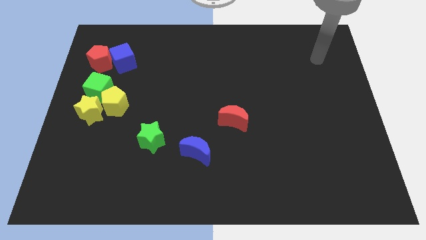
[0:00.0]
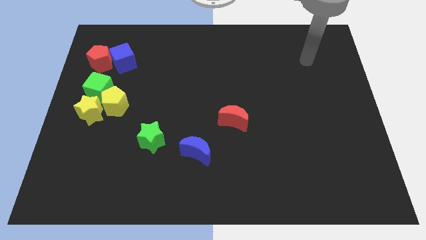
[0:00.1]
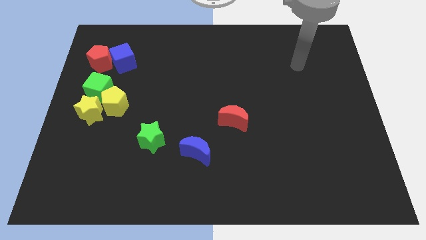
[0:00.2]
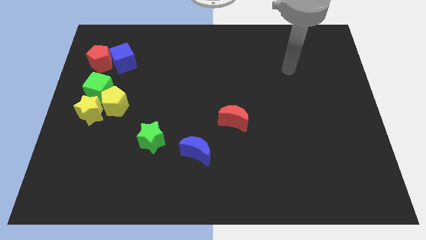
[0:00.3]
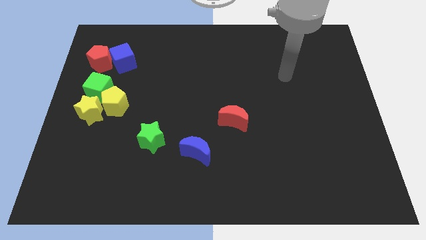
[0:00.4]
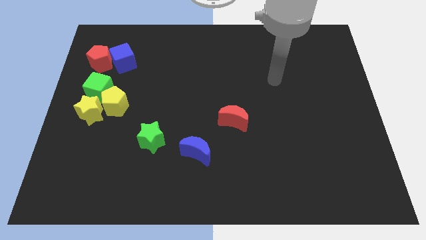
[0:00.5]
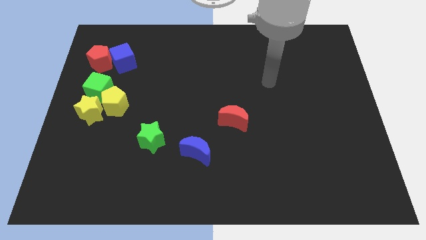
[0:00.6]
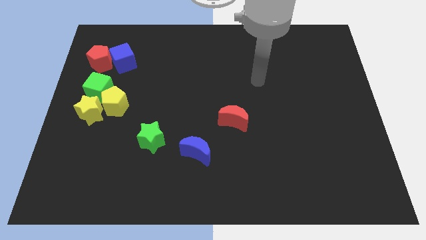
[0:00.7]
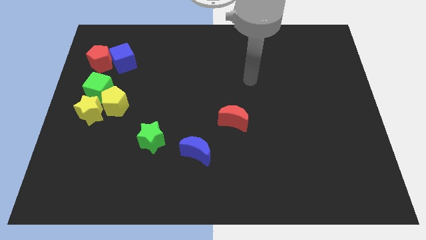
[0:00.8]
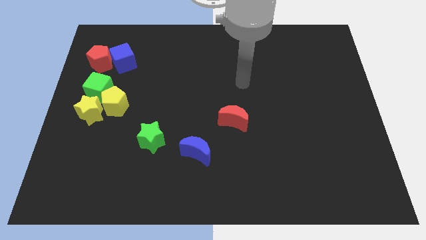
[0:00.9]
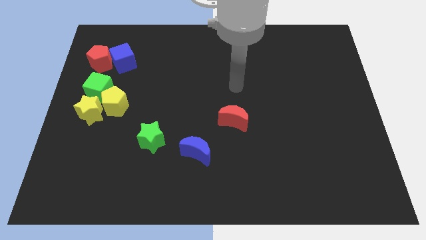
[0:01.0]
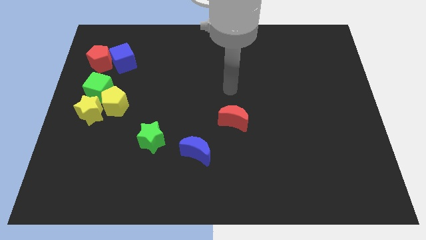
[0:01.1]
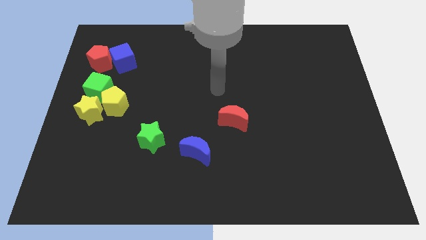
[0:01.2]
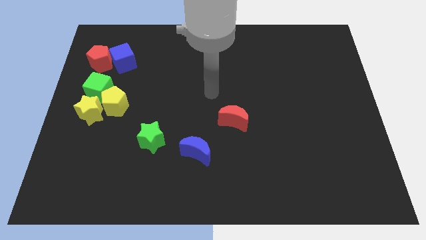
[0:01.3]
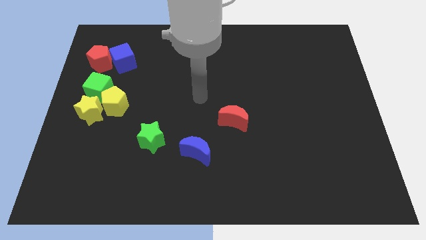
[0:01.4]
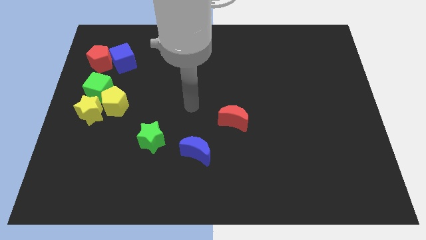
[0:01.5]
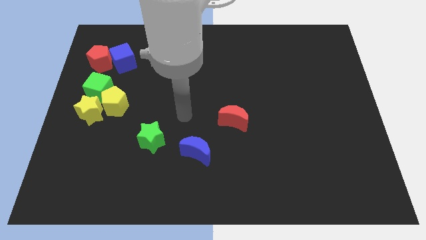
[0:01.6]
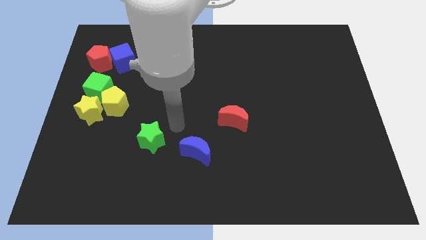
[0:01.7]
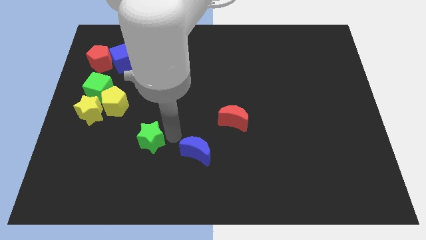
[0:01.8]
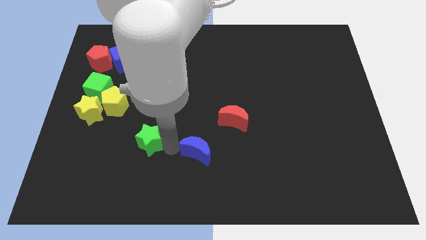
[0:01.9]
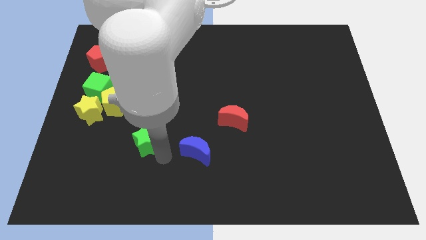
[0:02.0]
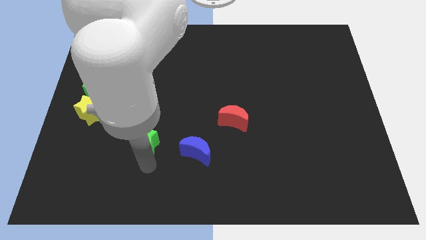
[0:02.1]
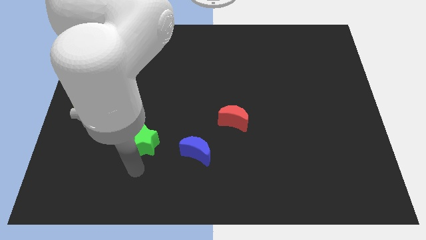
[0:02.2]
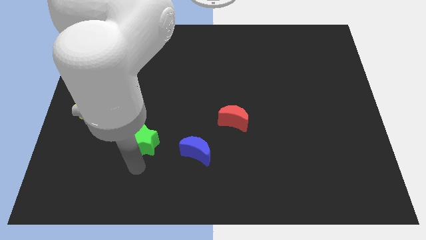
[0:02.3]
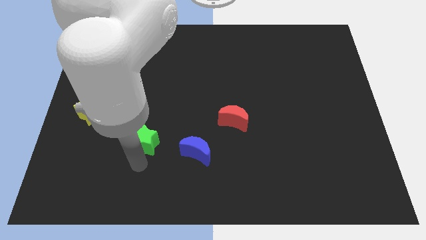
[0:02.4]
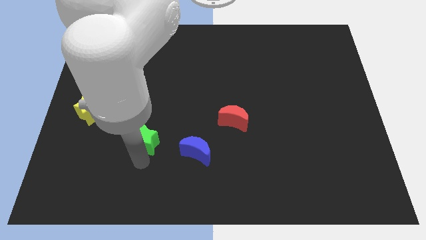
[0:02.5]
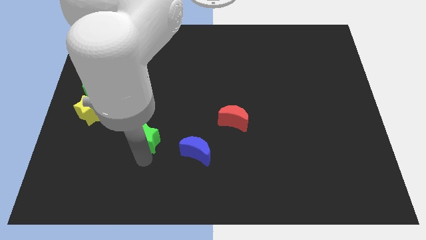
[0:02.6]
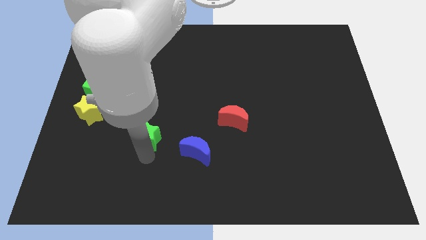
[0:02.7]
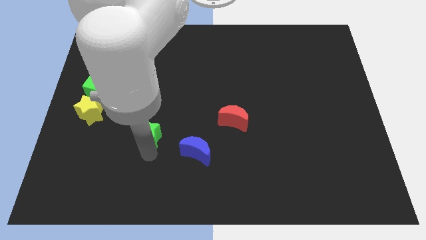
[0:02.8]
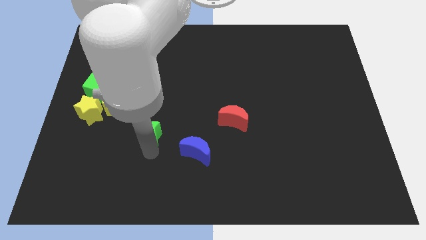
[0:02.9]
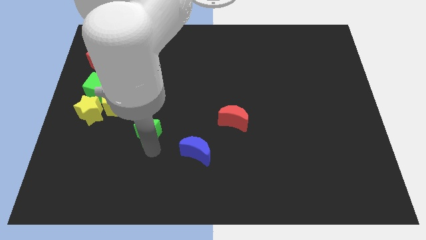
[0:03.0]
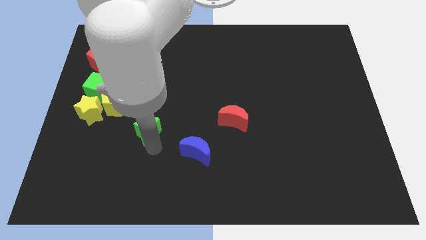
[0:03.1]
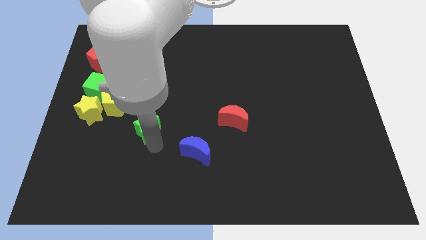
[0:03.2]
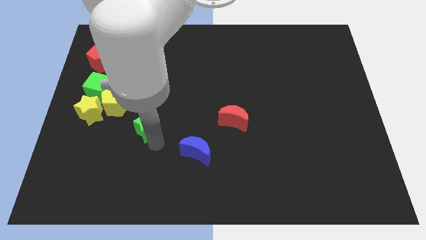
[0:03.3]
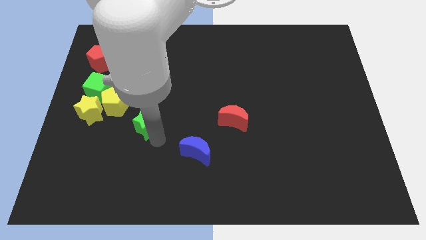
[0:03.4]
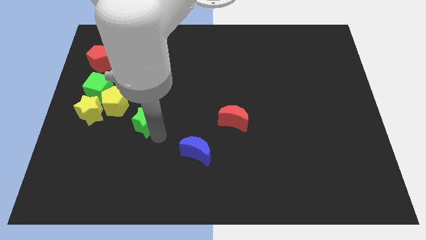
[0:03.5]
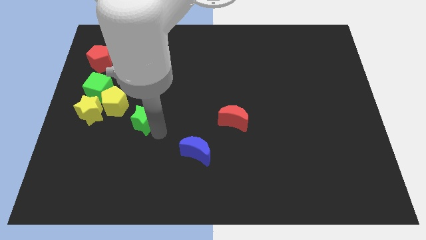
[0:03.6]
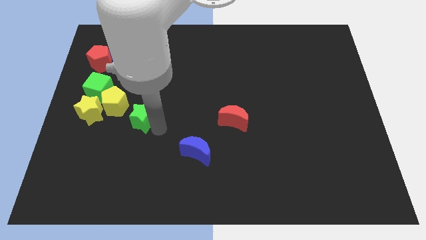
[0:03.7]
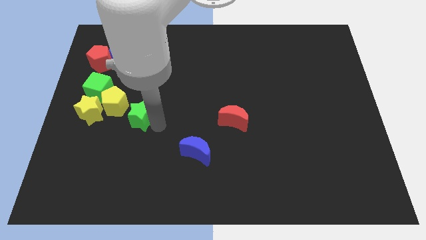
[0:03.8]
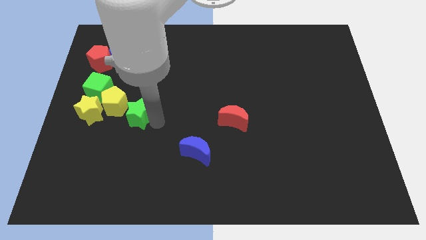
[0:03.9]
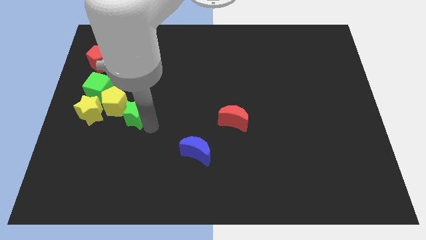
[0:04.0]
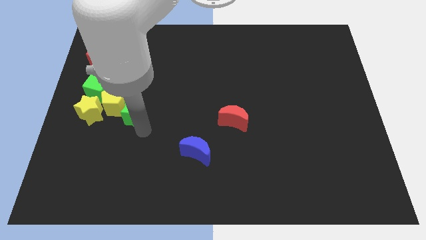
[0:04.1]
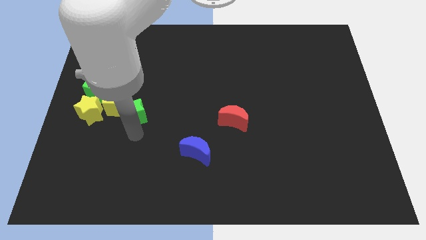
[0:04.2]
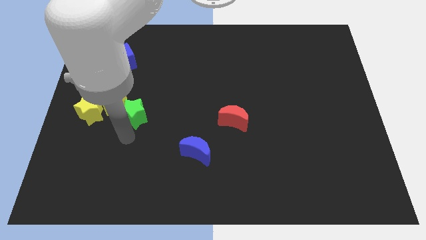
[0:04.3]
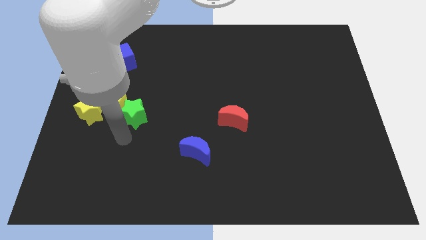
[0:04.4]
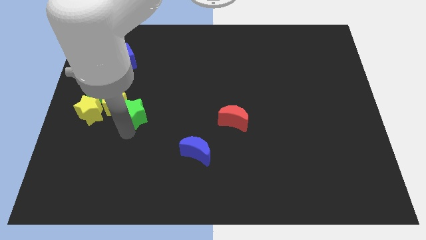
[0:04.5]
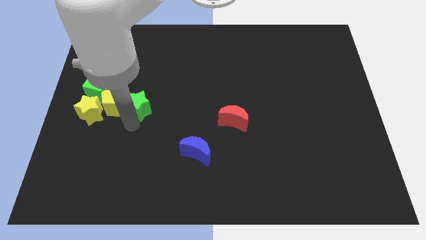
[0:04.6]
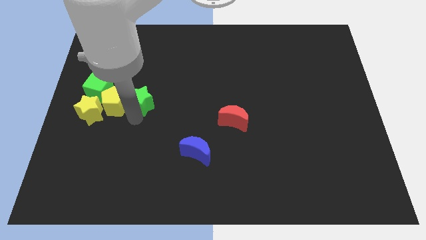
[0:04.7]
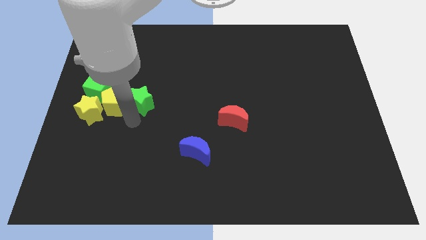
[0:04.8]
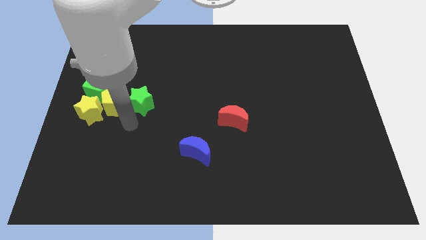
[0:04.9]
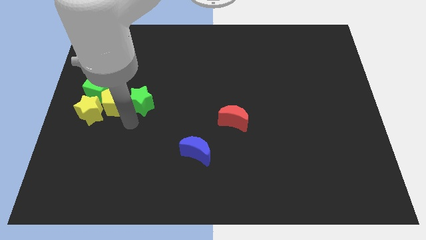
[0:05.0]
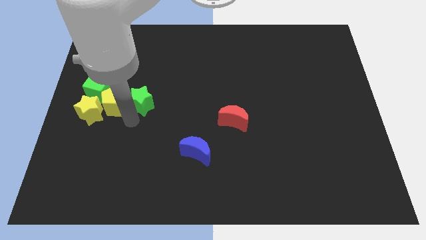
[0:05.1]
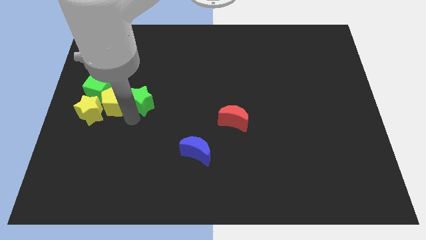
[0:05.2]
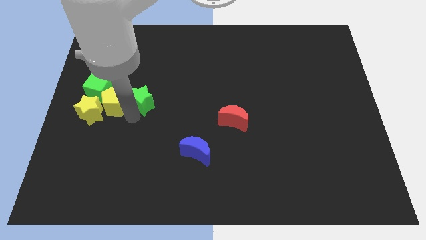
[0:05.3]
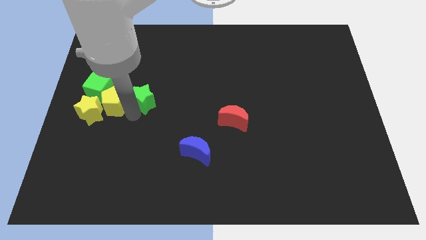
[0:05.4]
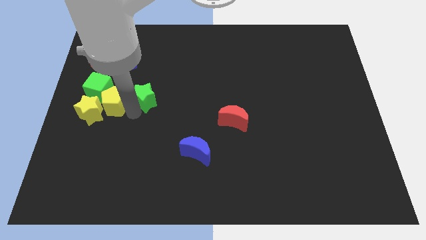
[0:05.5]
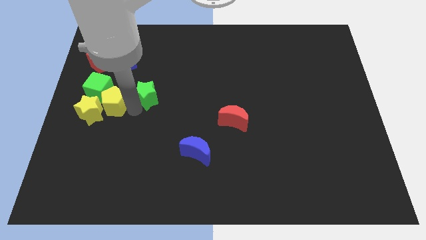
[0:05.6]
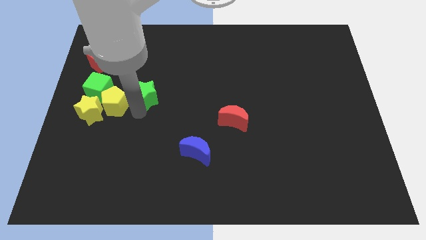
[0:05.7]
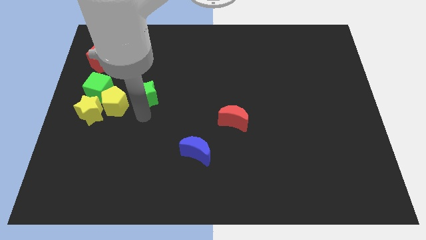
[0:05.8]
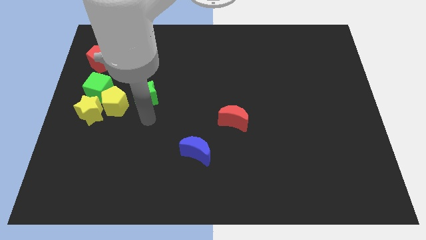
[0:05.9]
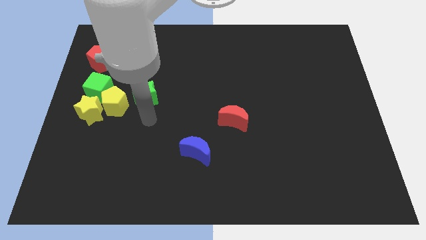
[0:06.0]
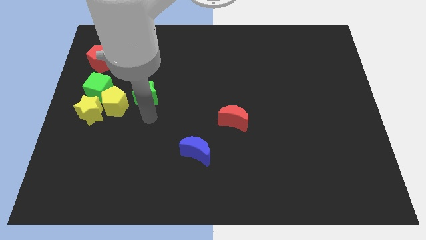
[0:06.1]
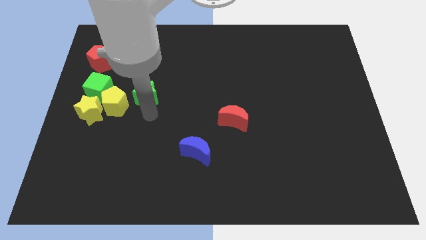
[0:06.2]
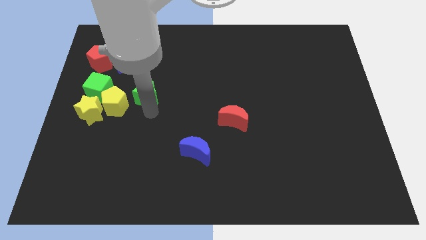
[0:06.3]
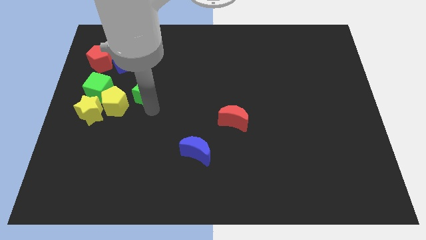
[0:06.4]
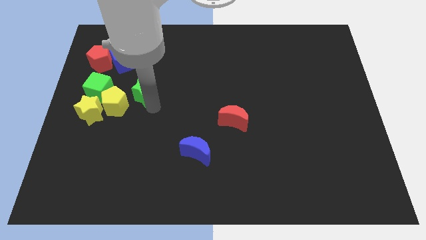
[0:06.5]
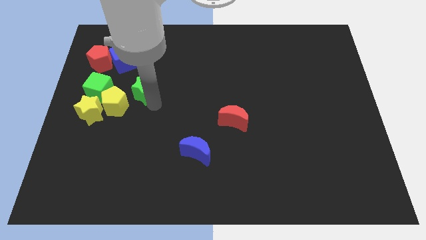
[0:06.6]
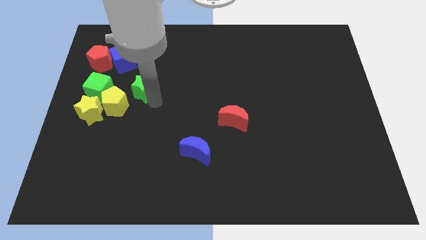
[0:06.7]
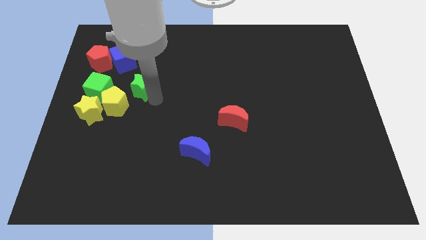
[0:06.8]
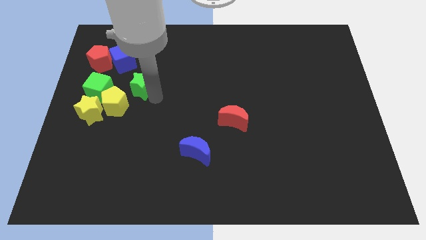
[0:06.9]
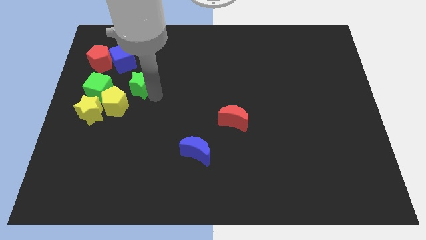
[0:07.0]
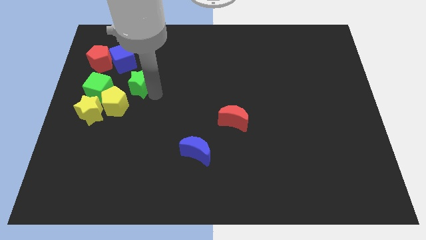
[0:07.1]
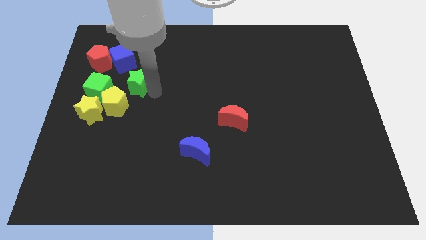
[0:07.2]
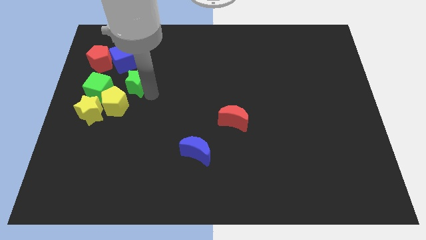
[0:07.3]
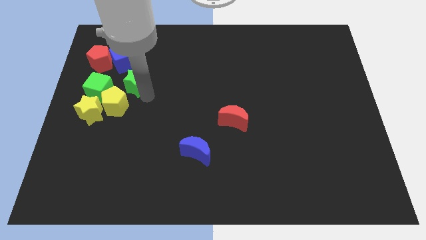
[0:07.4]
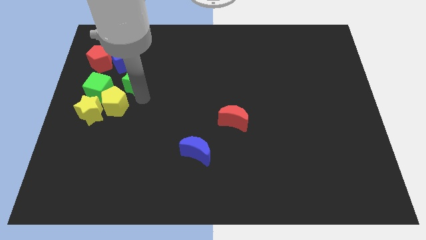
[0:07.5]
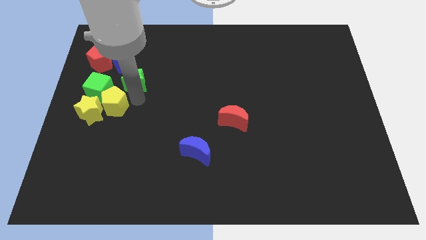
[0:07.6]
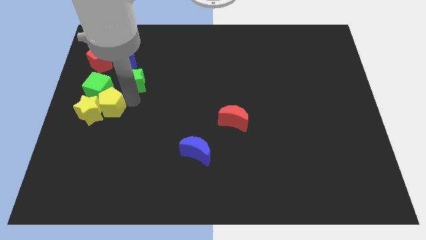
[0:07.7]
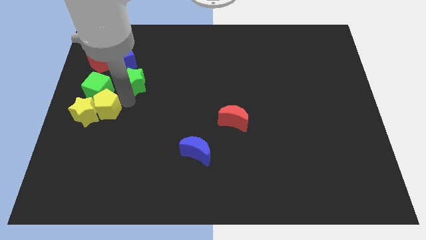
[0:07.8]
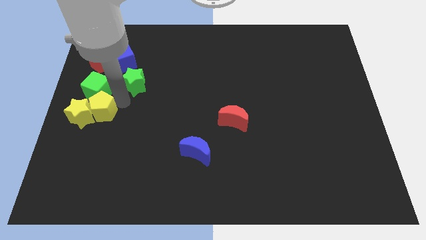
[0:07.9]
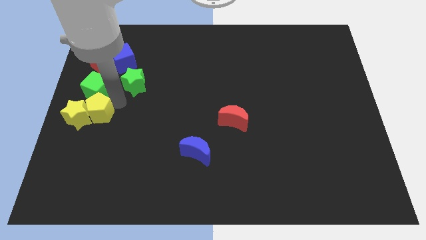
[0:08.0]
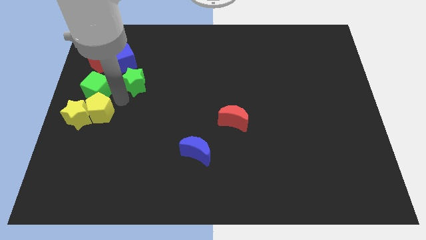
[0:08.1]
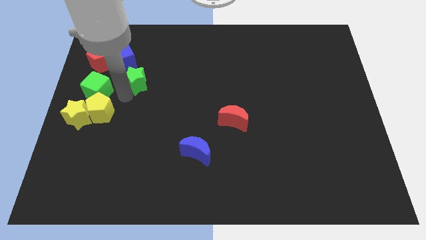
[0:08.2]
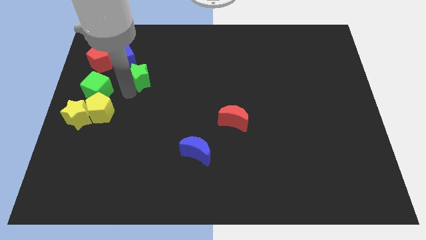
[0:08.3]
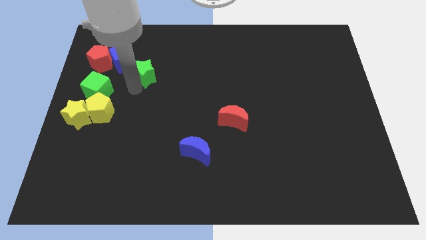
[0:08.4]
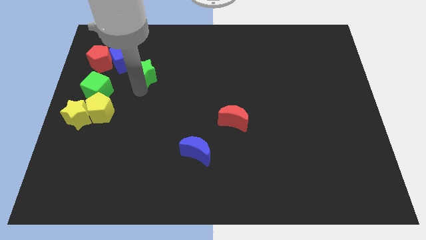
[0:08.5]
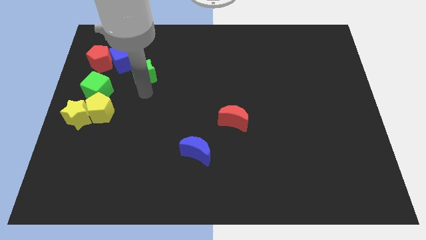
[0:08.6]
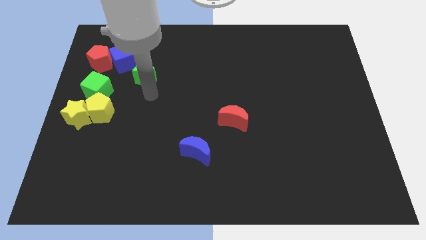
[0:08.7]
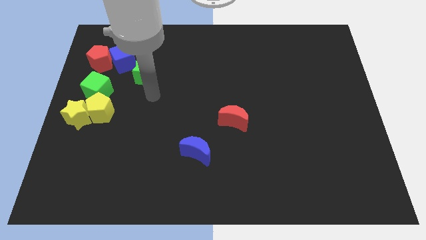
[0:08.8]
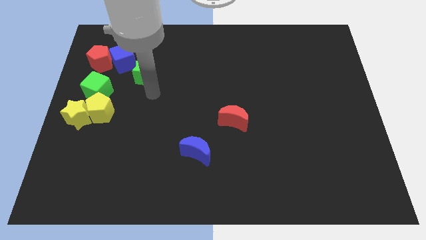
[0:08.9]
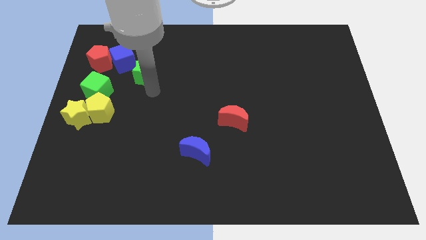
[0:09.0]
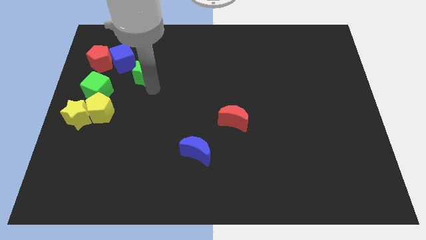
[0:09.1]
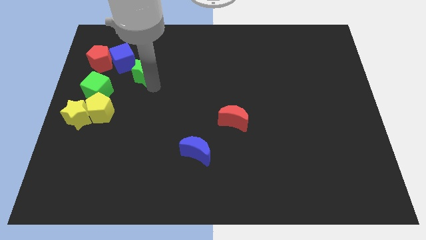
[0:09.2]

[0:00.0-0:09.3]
push the green star to the right side of the red pentagon
